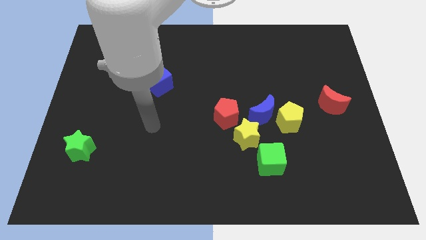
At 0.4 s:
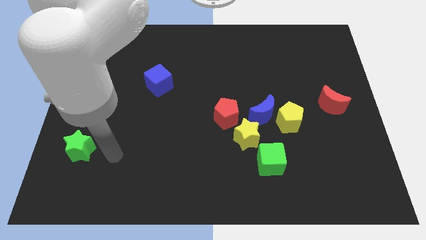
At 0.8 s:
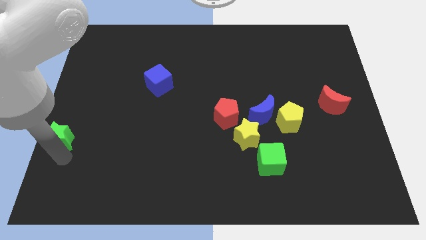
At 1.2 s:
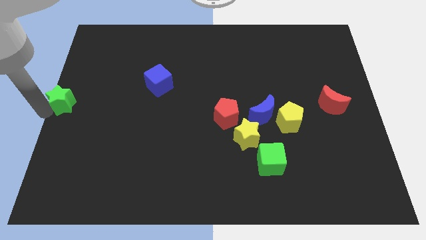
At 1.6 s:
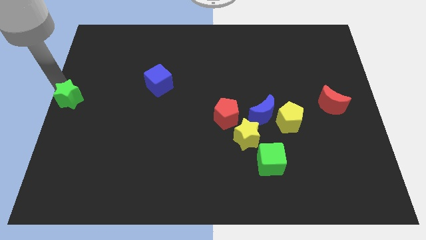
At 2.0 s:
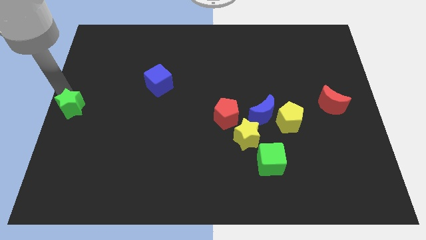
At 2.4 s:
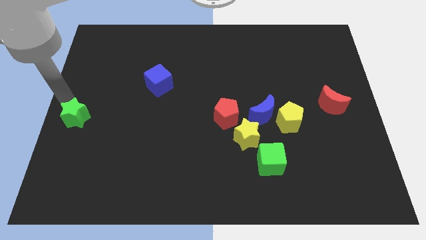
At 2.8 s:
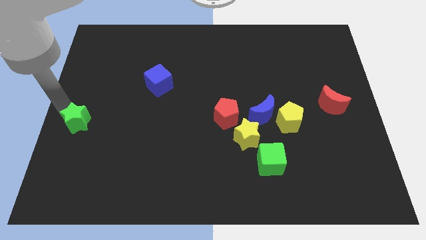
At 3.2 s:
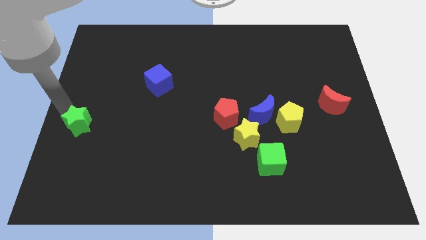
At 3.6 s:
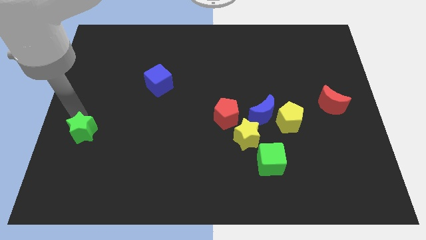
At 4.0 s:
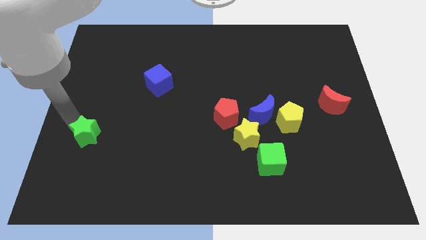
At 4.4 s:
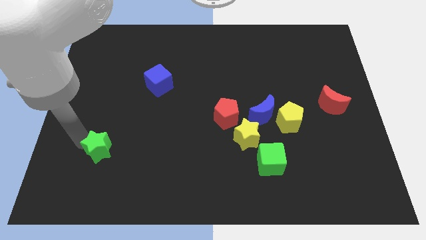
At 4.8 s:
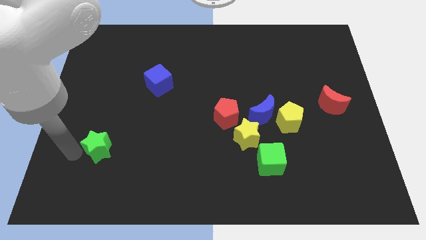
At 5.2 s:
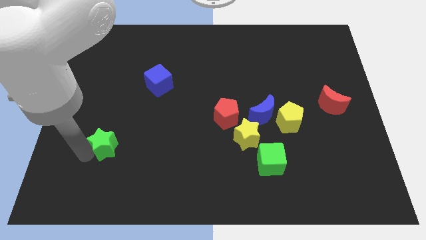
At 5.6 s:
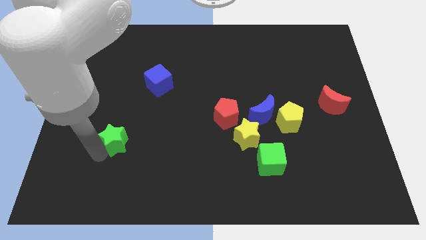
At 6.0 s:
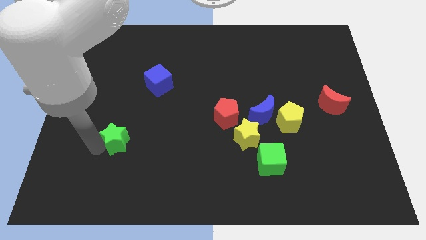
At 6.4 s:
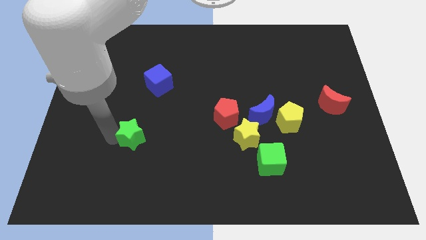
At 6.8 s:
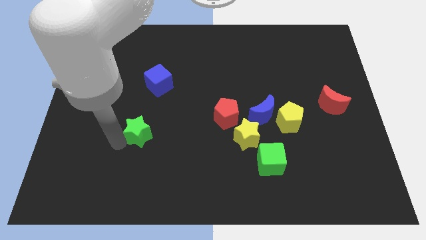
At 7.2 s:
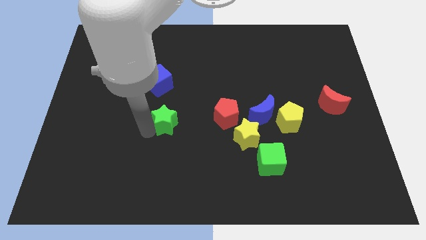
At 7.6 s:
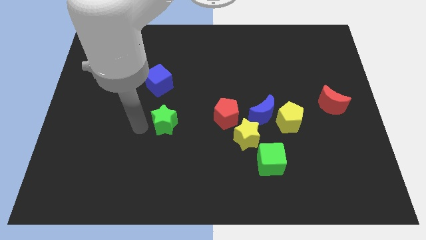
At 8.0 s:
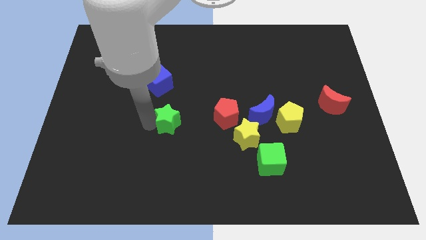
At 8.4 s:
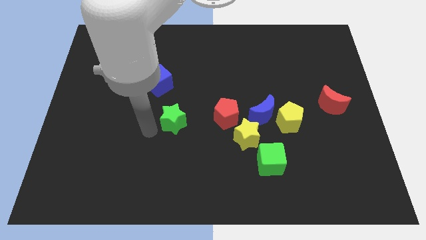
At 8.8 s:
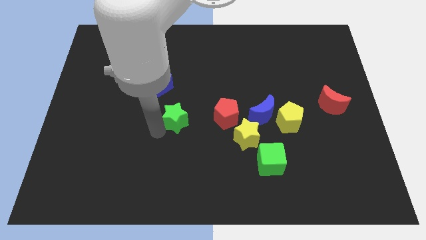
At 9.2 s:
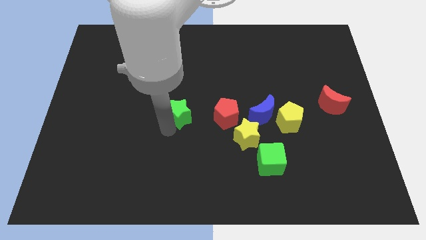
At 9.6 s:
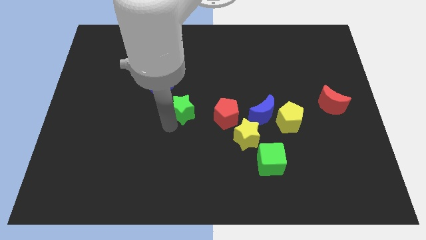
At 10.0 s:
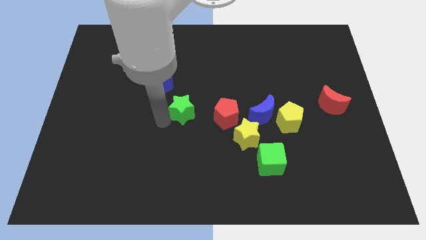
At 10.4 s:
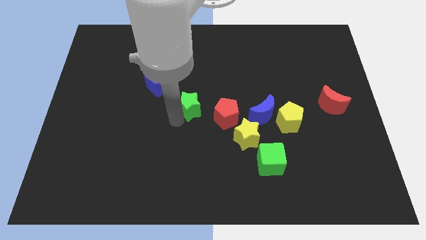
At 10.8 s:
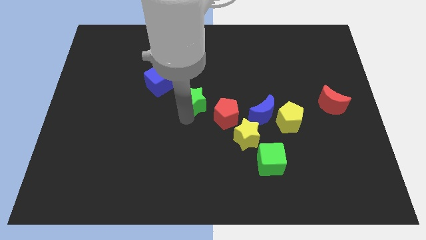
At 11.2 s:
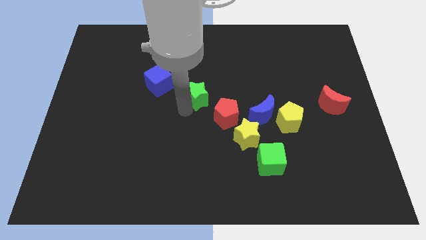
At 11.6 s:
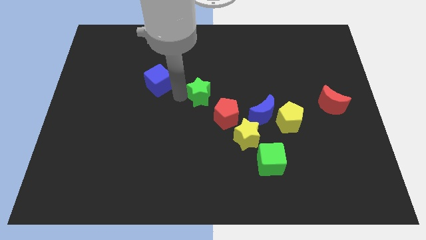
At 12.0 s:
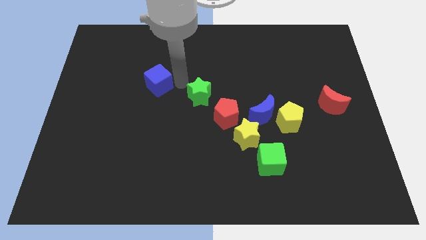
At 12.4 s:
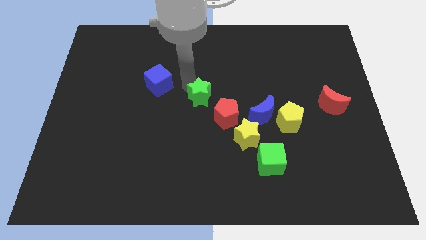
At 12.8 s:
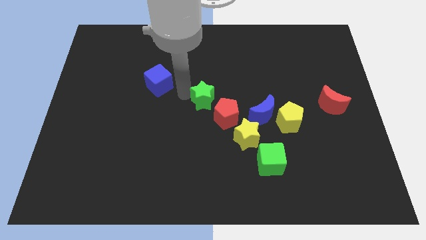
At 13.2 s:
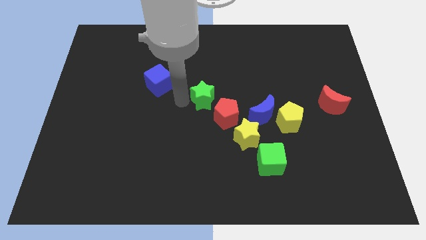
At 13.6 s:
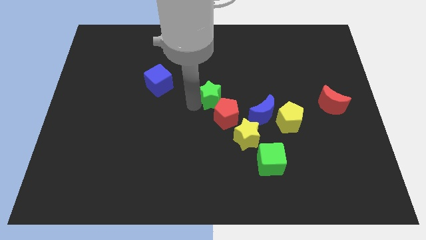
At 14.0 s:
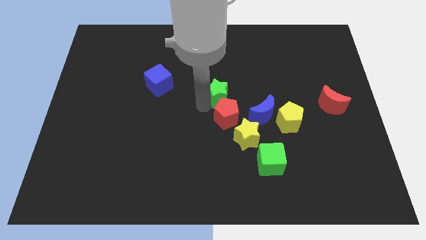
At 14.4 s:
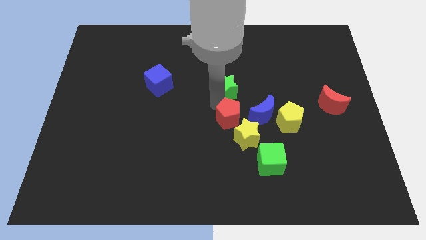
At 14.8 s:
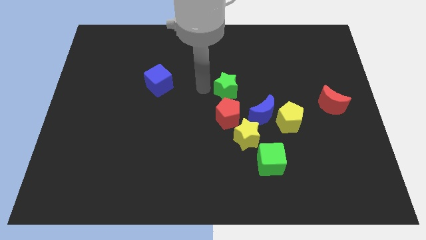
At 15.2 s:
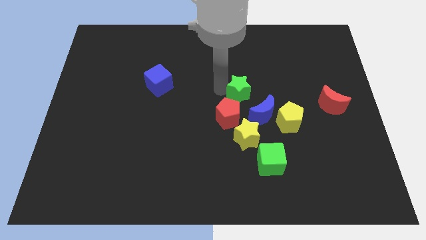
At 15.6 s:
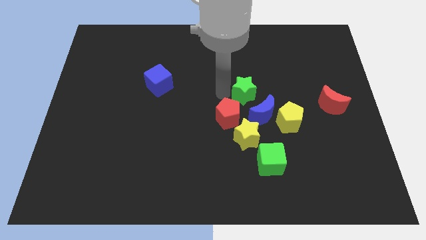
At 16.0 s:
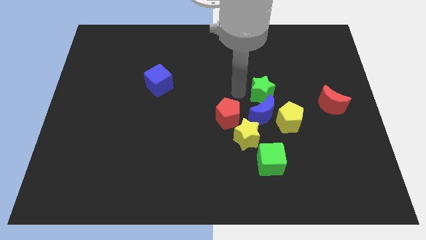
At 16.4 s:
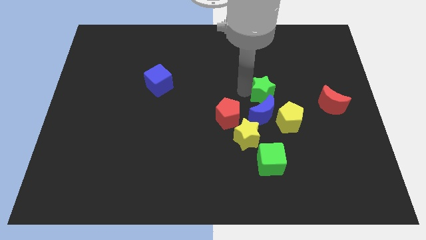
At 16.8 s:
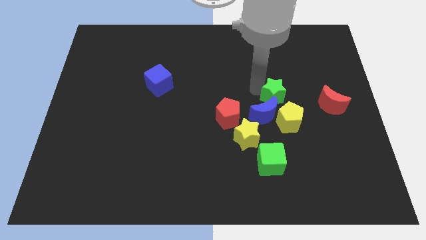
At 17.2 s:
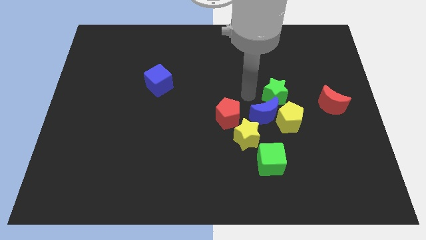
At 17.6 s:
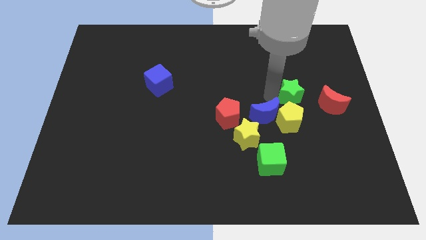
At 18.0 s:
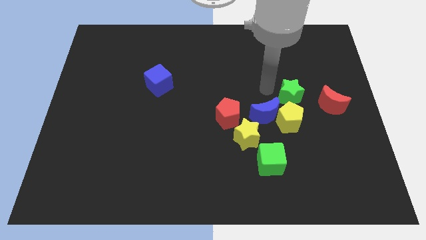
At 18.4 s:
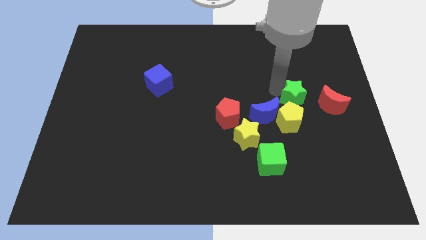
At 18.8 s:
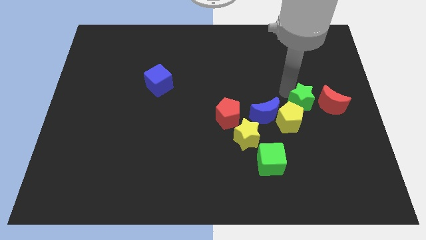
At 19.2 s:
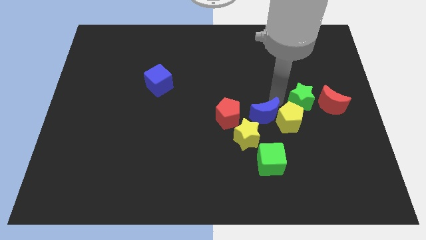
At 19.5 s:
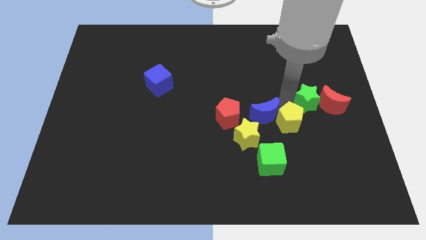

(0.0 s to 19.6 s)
push the green star to the red moon

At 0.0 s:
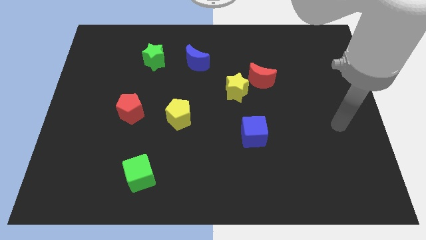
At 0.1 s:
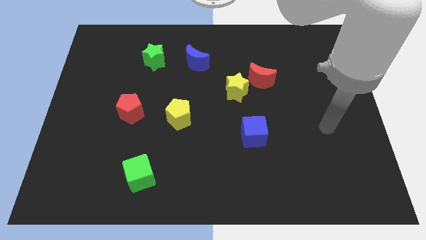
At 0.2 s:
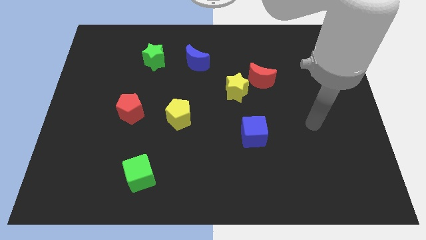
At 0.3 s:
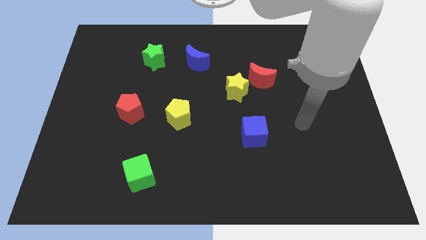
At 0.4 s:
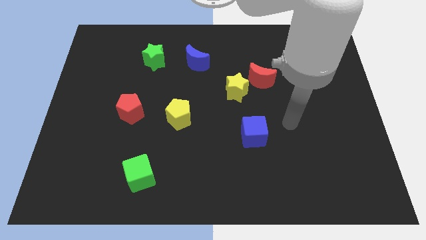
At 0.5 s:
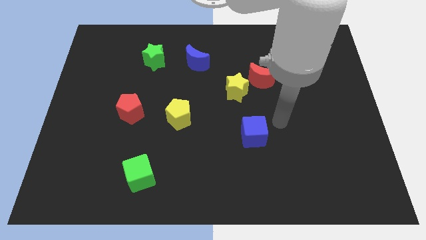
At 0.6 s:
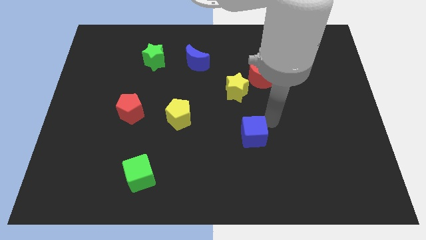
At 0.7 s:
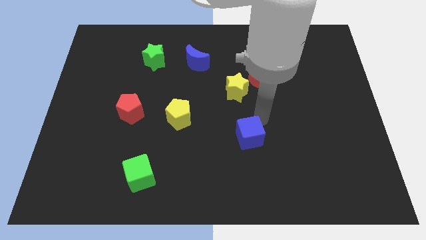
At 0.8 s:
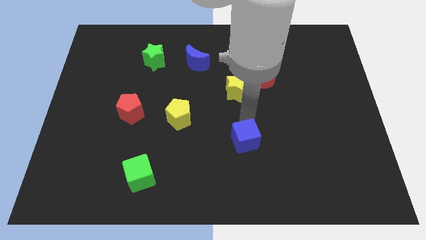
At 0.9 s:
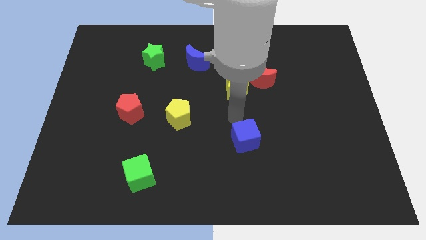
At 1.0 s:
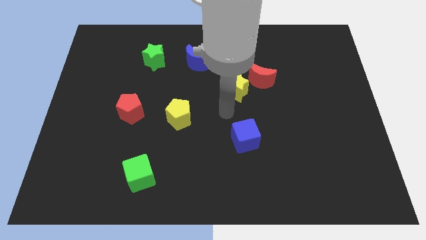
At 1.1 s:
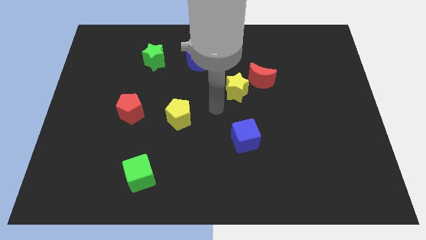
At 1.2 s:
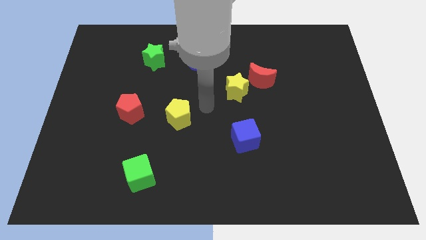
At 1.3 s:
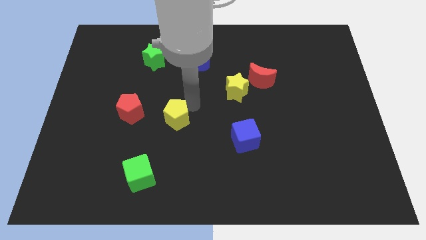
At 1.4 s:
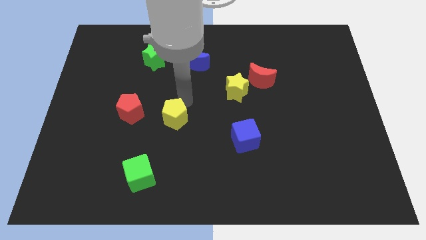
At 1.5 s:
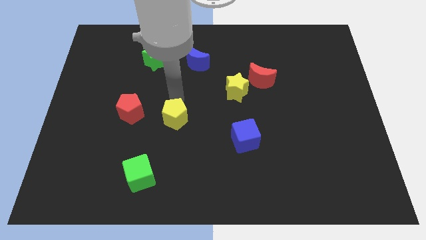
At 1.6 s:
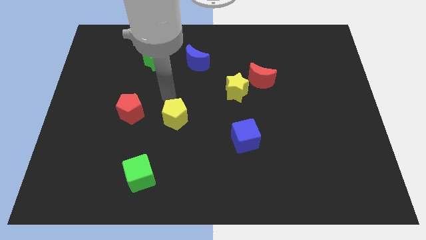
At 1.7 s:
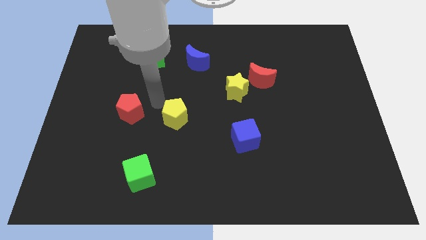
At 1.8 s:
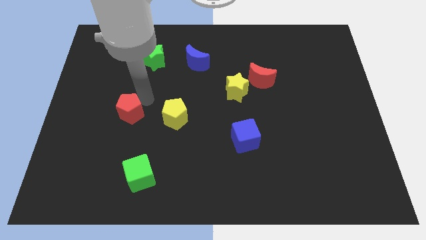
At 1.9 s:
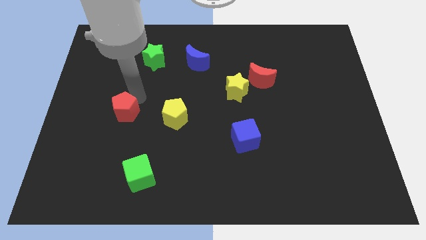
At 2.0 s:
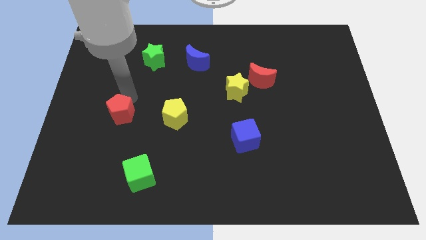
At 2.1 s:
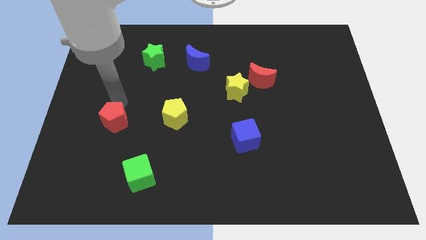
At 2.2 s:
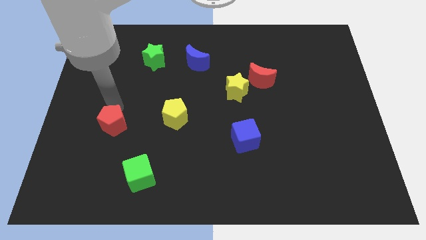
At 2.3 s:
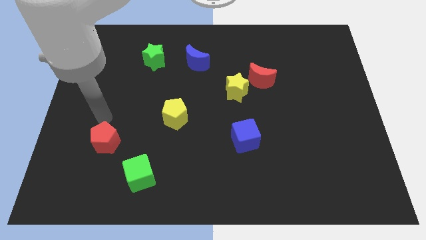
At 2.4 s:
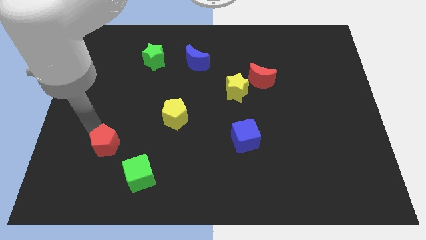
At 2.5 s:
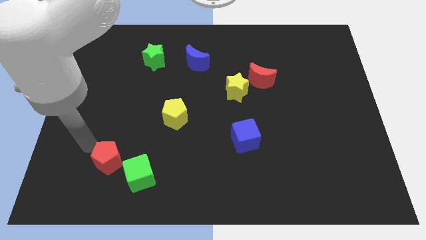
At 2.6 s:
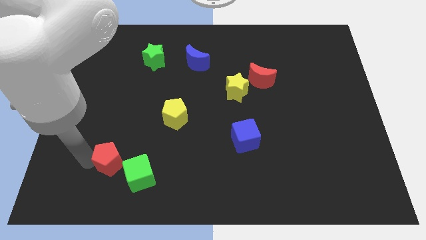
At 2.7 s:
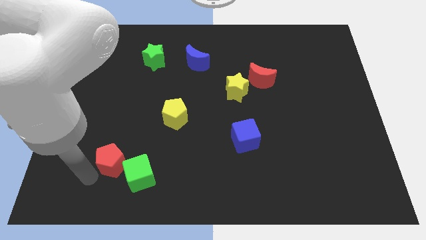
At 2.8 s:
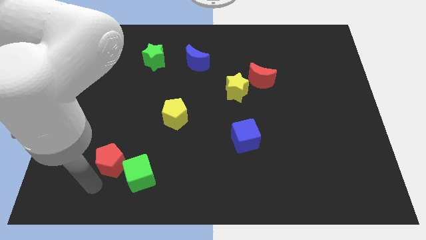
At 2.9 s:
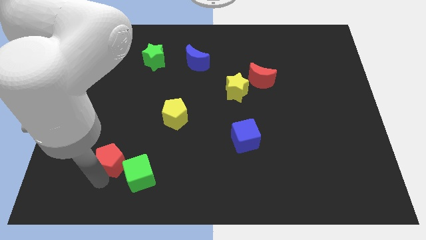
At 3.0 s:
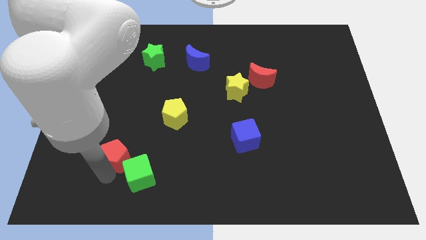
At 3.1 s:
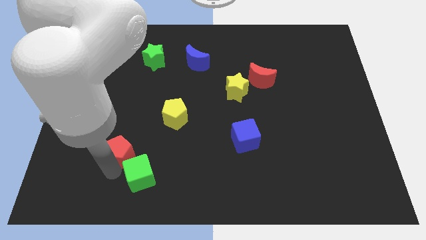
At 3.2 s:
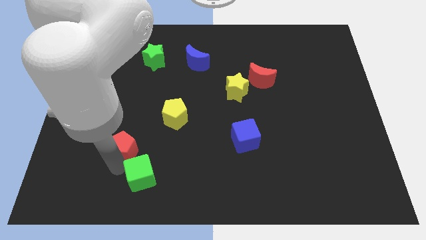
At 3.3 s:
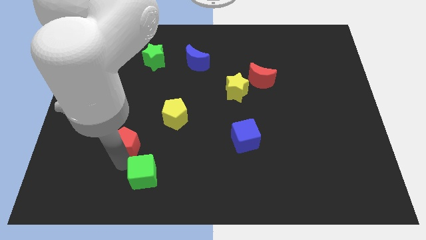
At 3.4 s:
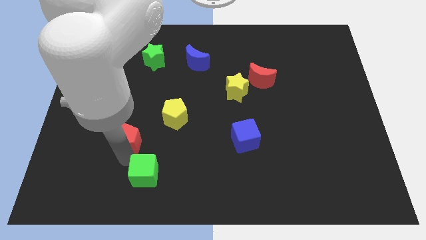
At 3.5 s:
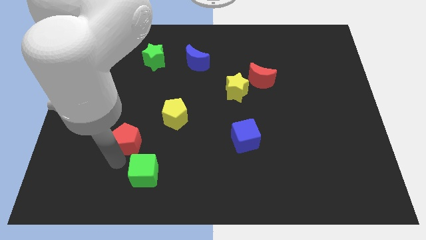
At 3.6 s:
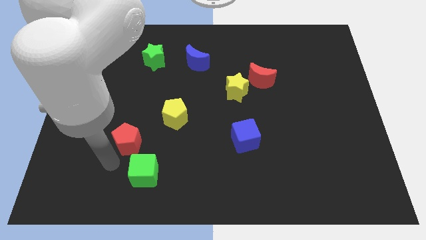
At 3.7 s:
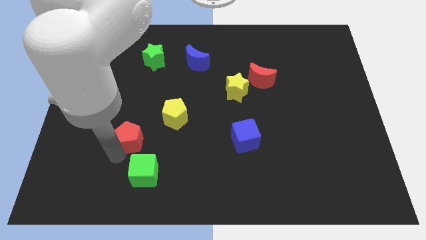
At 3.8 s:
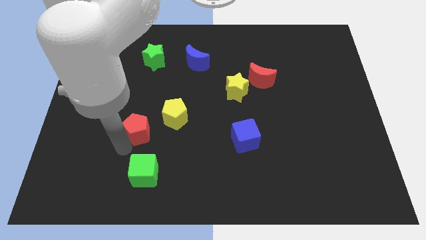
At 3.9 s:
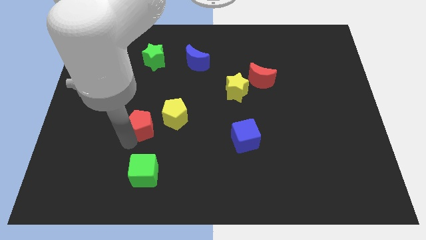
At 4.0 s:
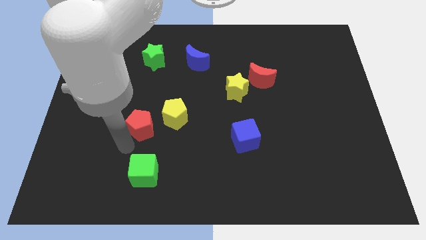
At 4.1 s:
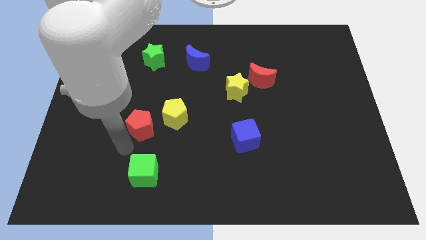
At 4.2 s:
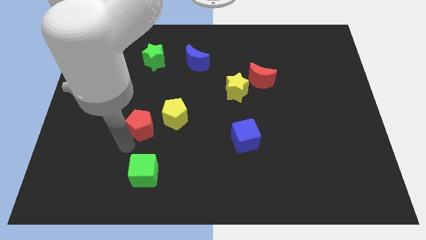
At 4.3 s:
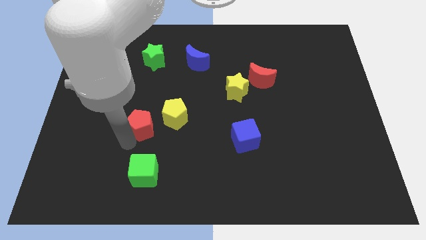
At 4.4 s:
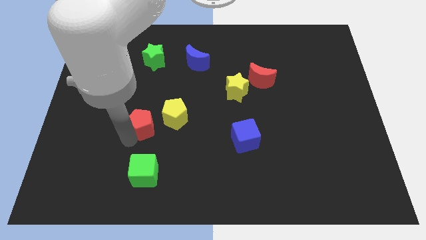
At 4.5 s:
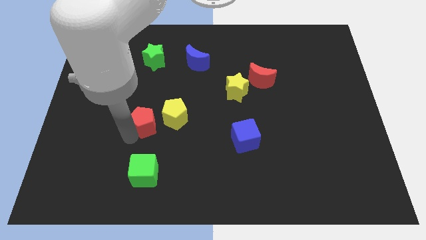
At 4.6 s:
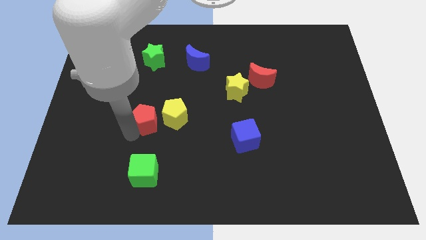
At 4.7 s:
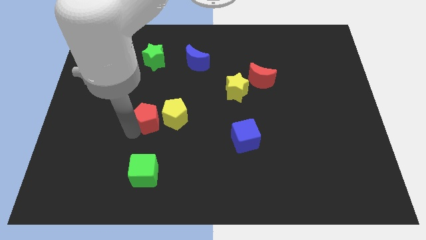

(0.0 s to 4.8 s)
slide the red pentagon next to the yellow pentagon
